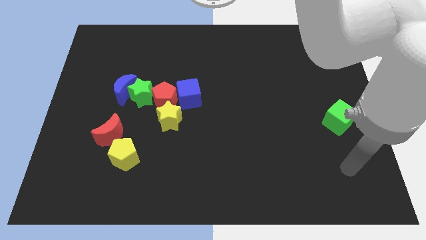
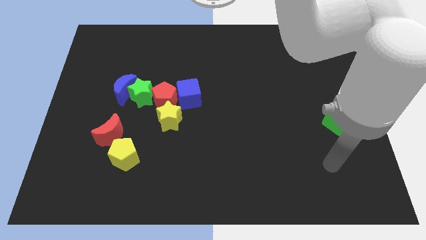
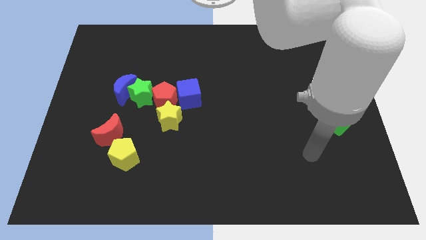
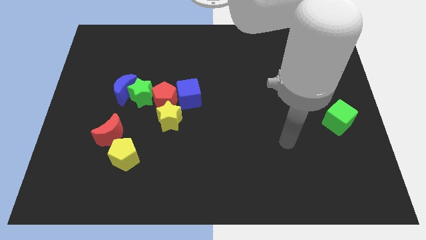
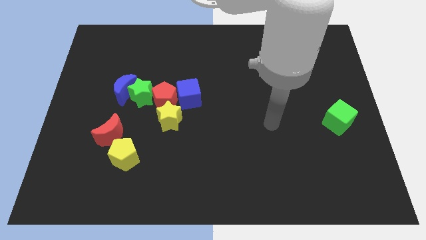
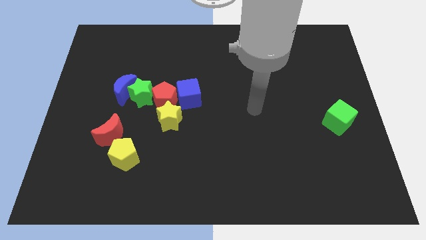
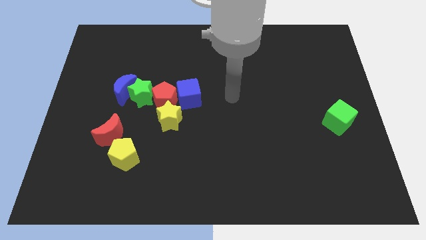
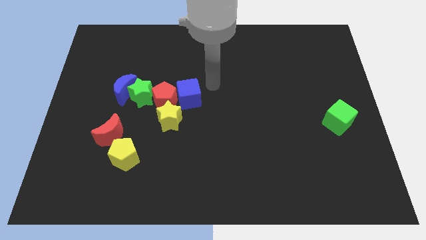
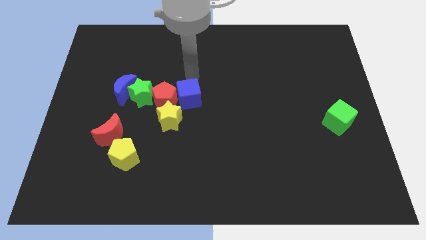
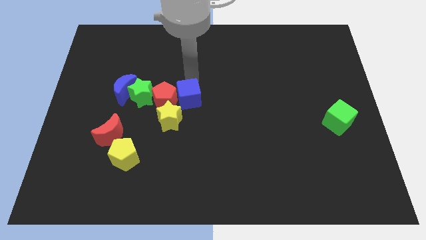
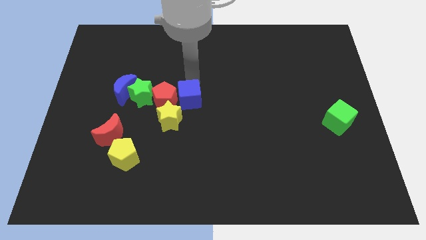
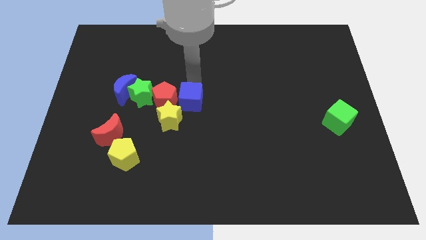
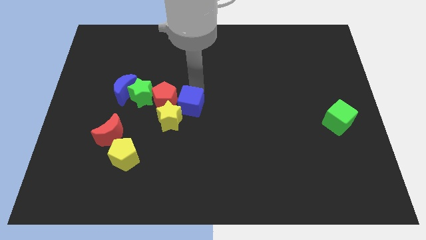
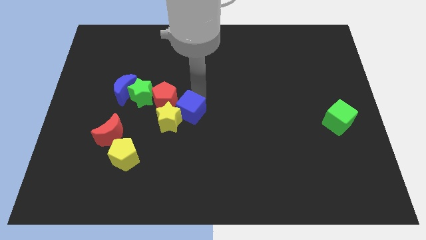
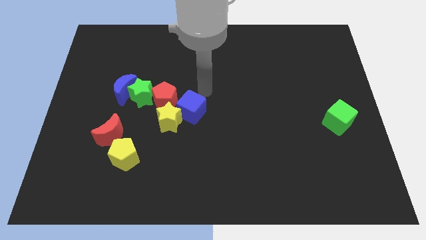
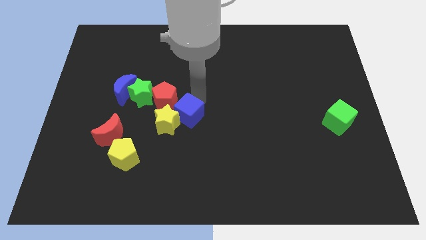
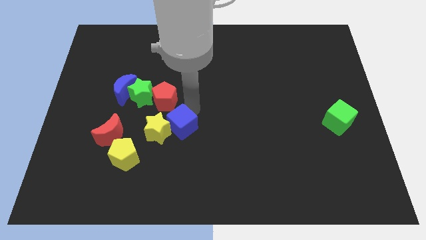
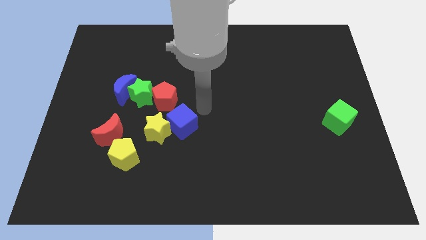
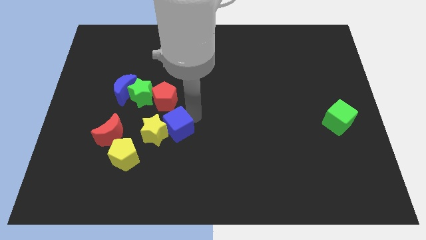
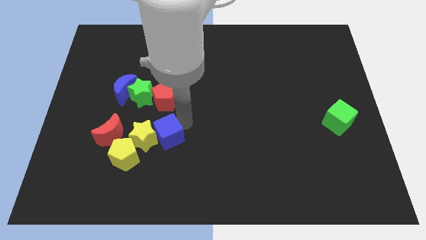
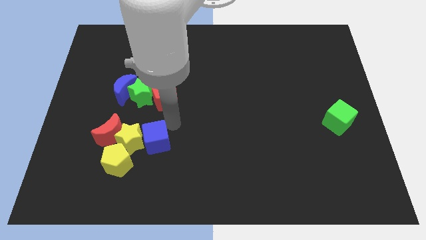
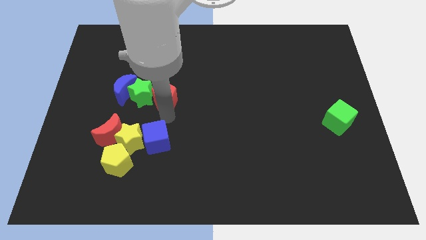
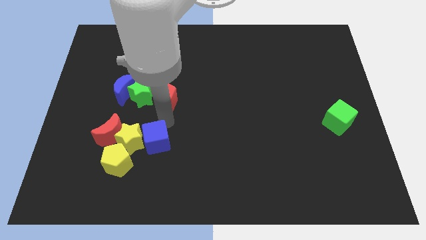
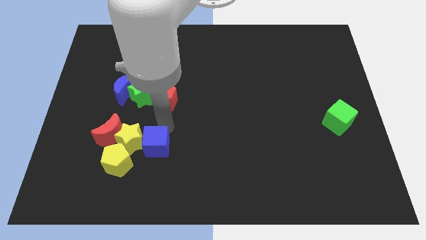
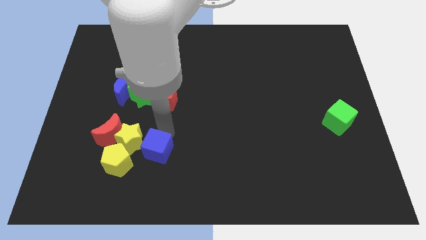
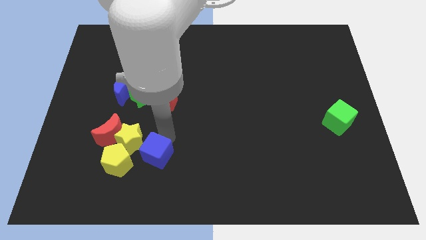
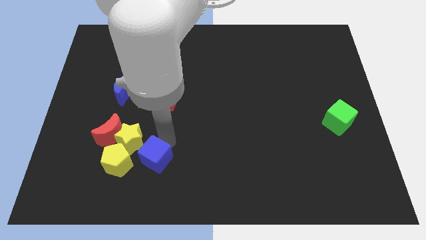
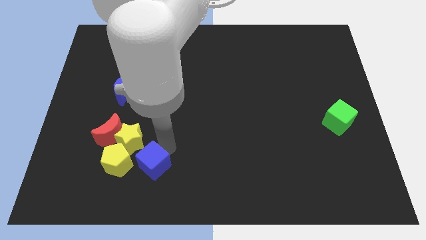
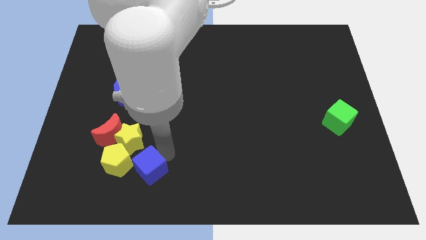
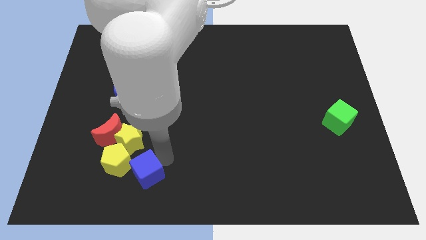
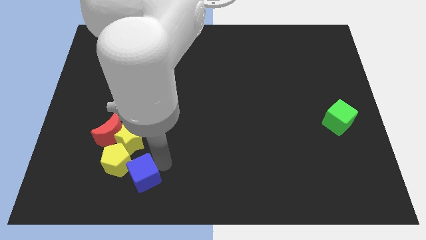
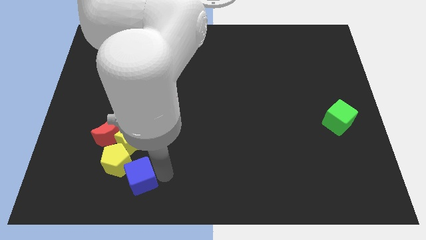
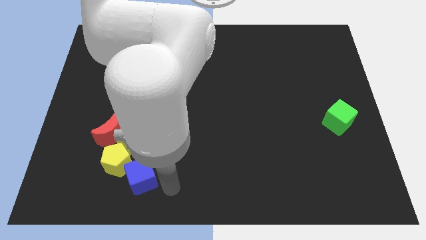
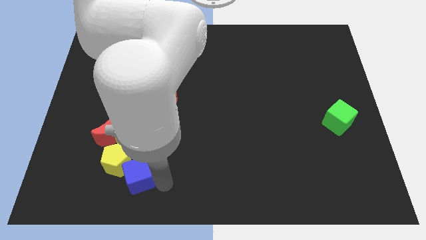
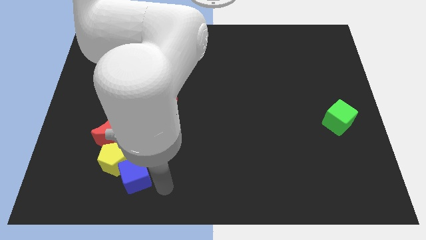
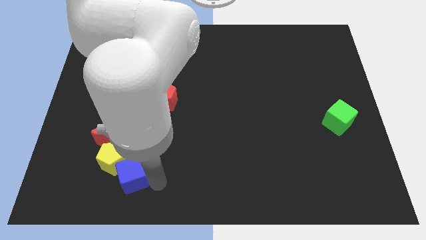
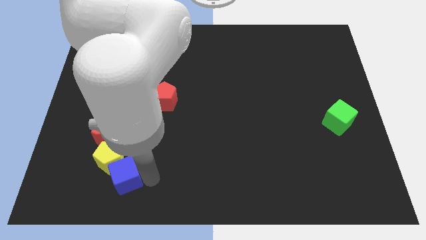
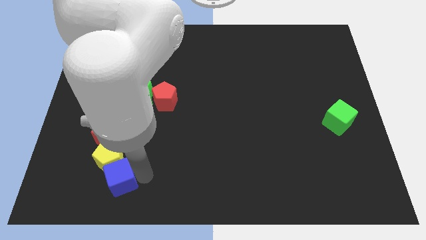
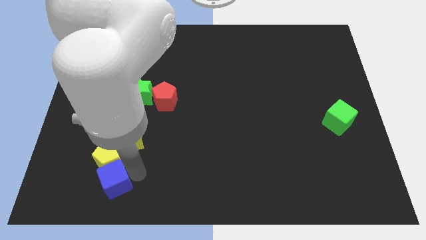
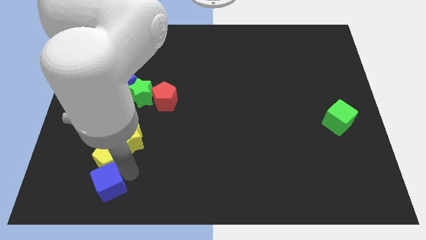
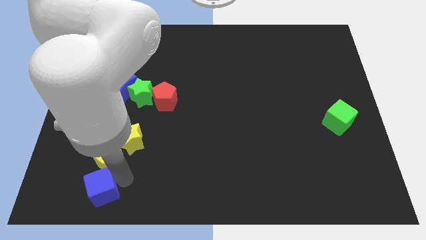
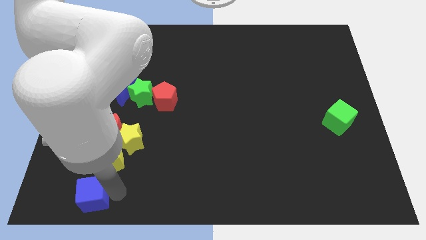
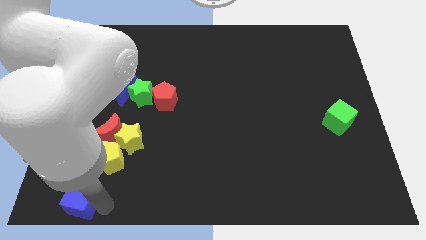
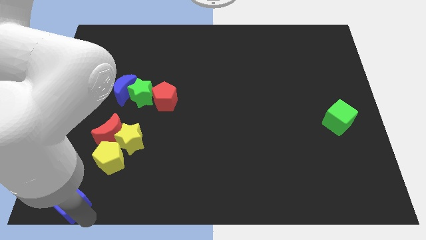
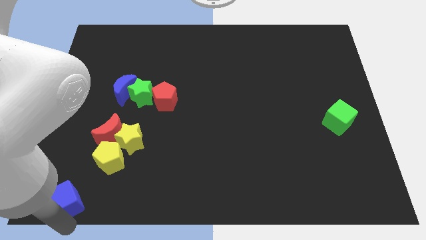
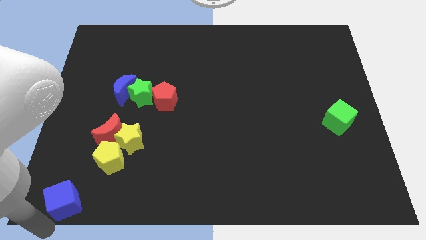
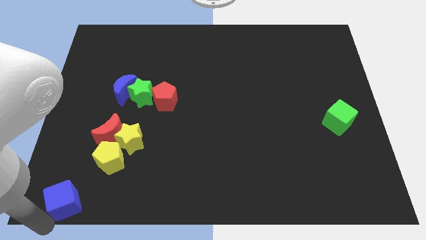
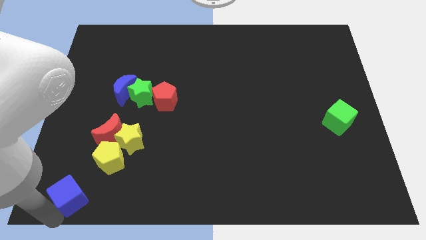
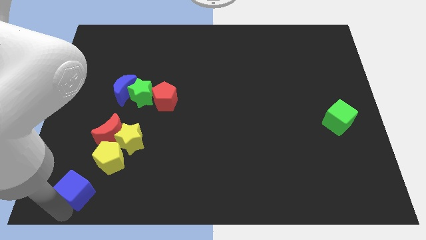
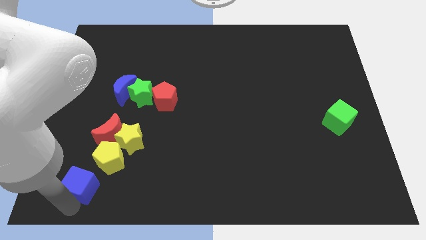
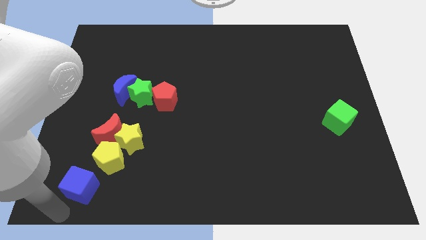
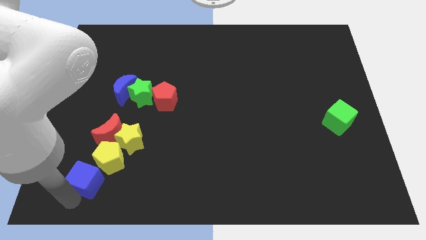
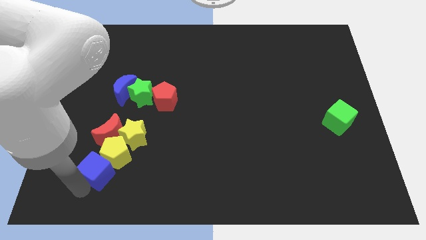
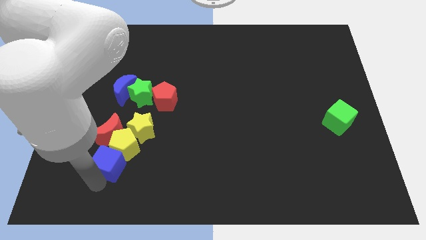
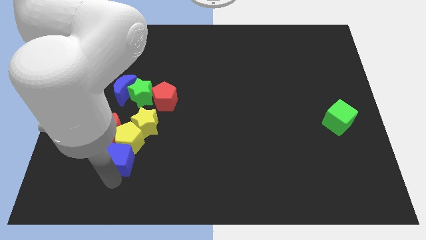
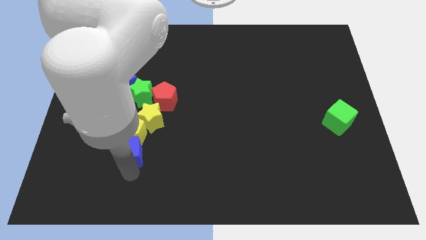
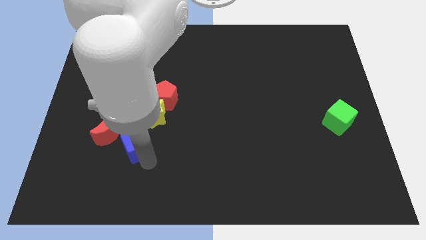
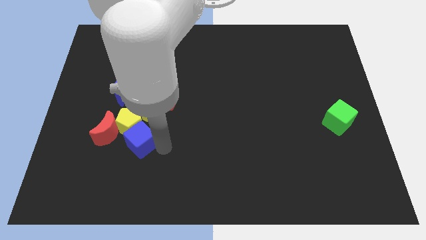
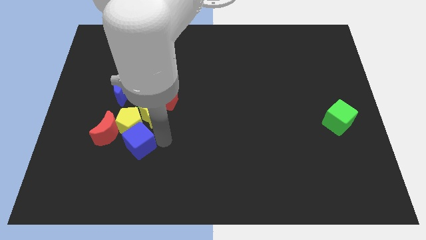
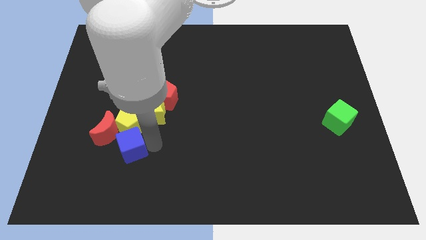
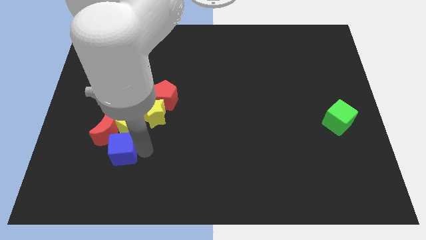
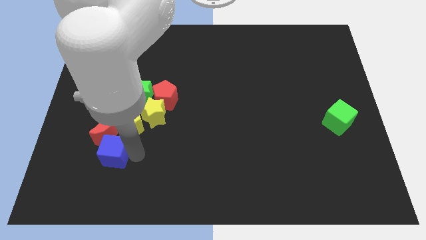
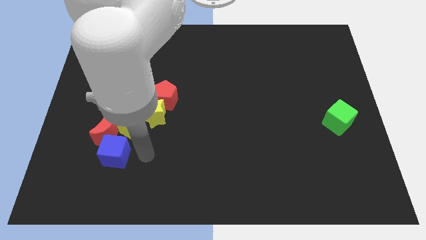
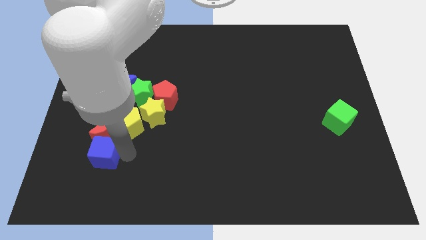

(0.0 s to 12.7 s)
push the blue cube to the bottom left of the red moon

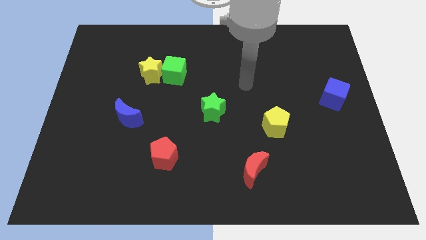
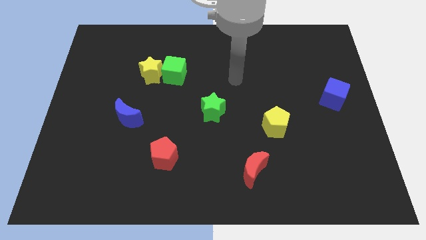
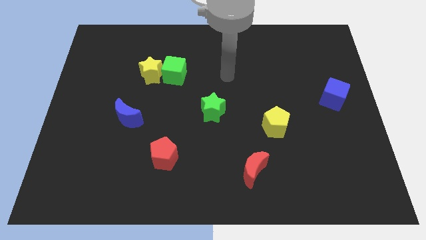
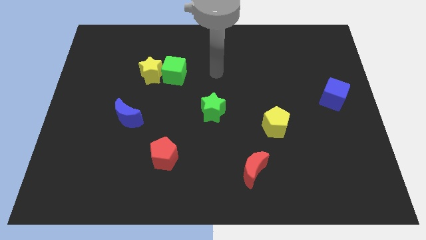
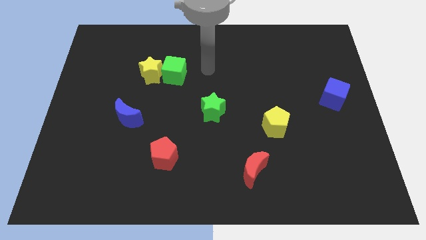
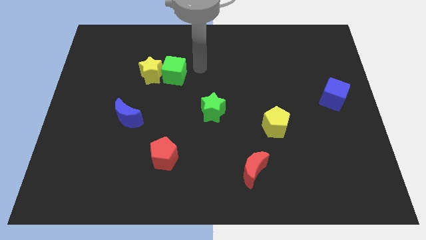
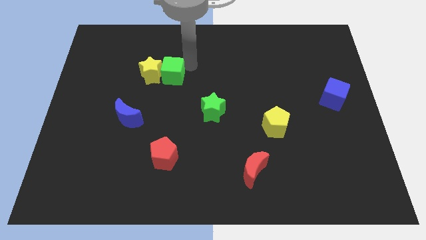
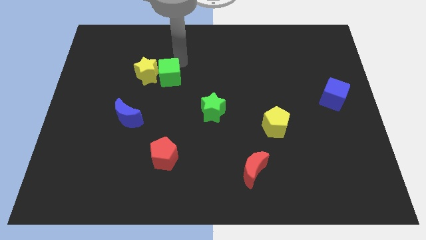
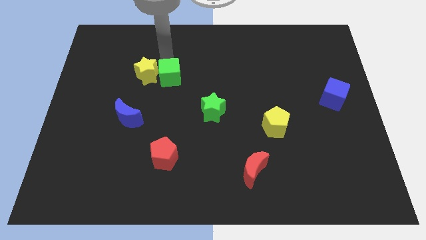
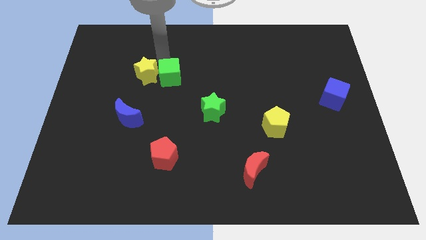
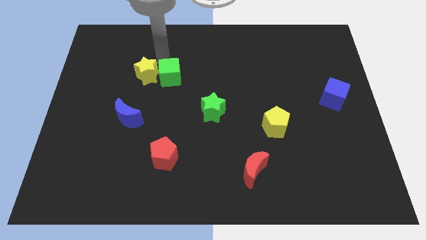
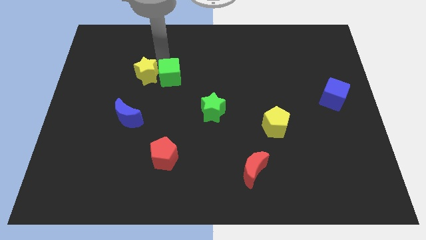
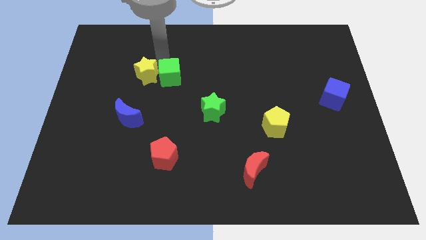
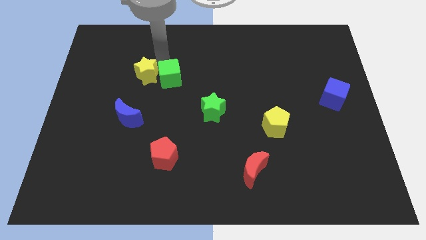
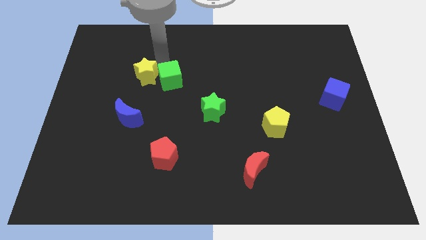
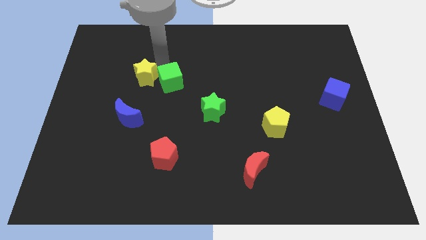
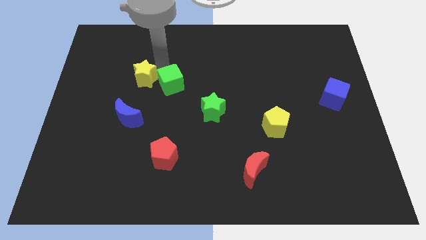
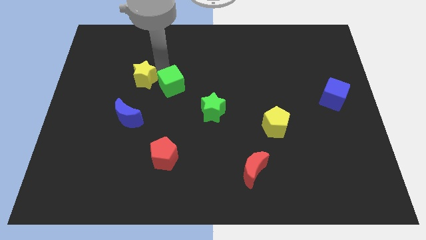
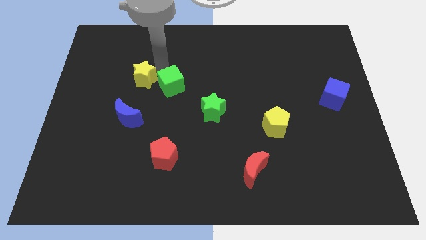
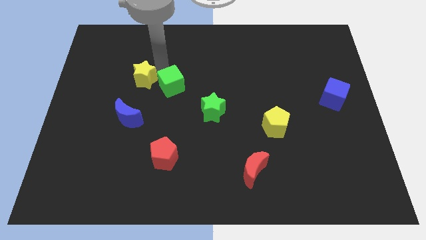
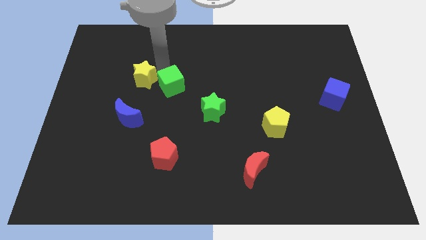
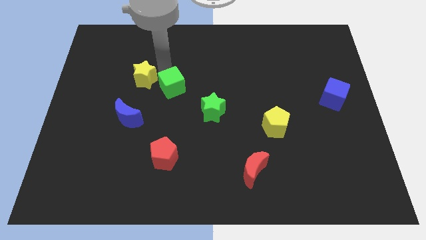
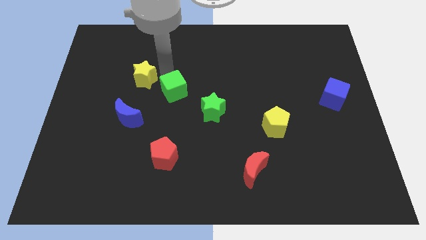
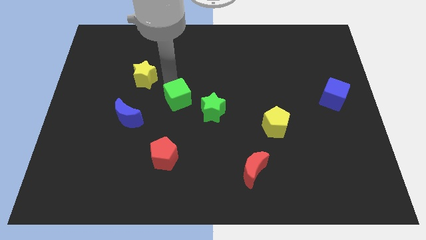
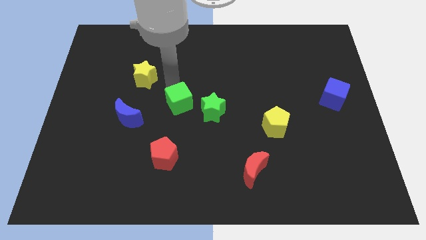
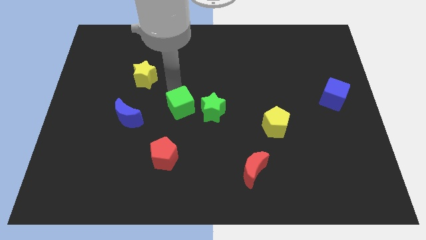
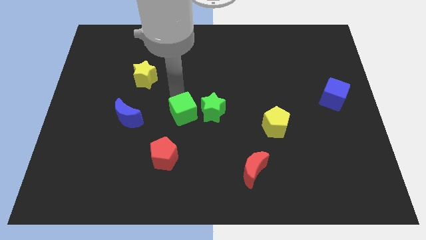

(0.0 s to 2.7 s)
move the green cube diagonally down and to the left of the green star
